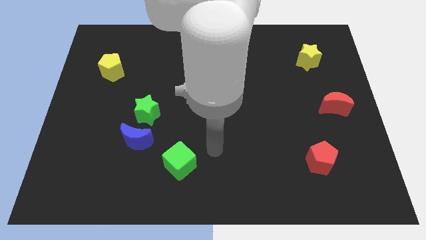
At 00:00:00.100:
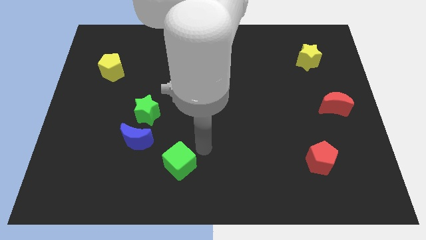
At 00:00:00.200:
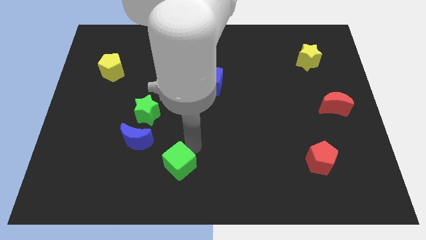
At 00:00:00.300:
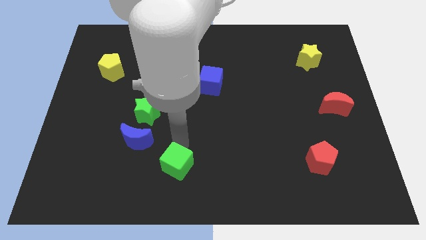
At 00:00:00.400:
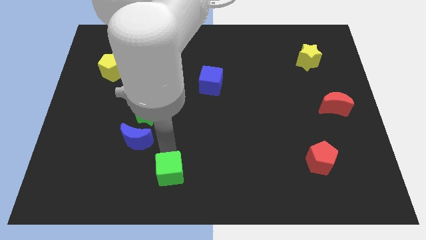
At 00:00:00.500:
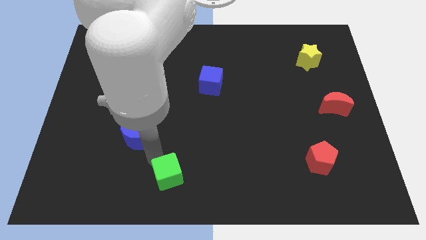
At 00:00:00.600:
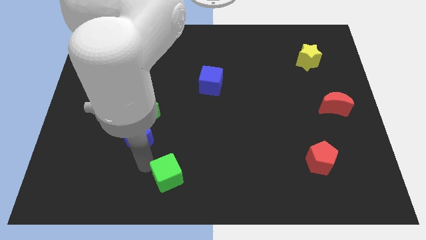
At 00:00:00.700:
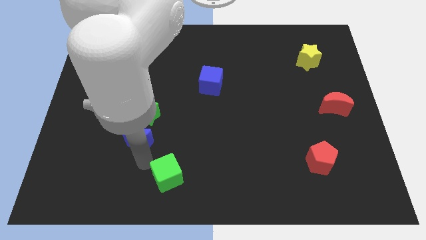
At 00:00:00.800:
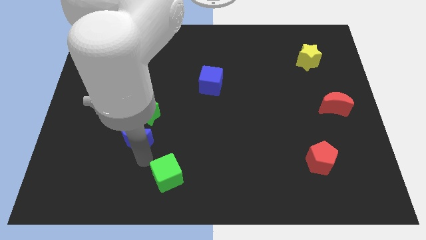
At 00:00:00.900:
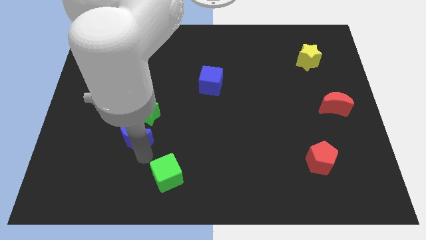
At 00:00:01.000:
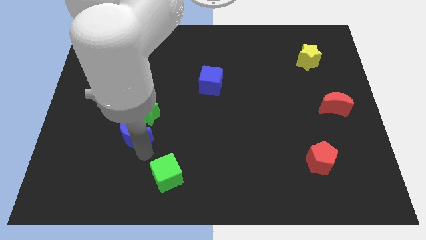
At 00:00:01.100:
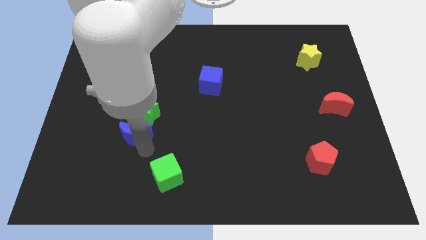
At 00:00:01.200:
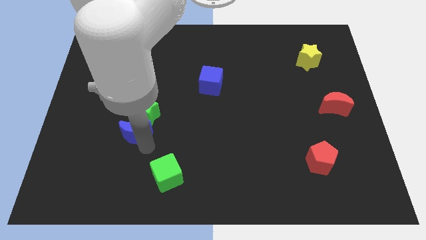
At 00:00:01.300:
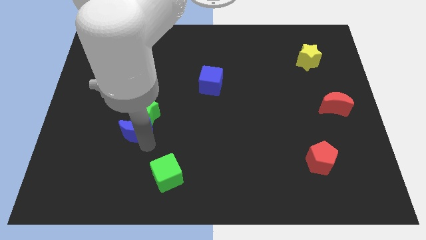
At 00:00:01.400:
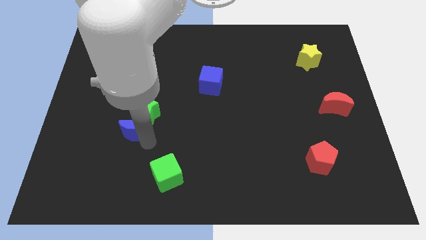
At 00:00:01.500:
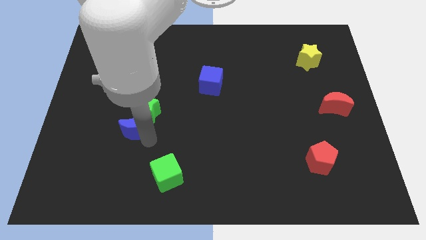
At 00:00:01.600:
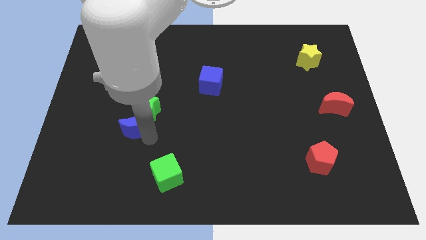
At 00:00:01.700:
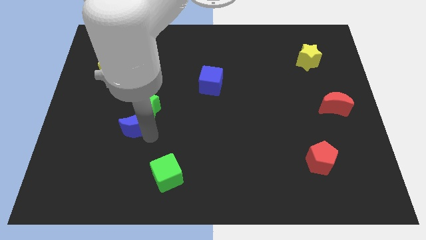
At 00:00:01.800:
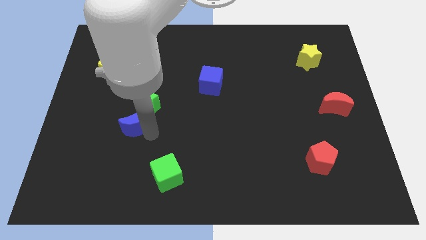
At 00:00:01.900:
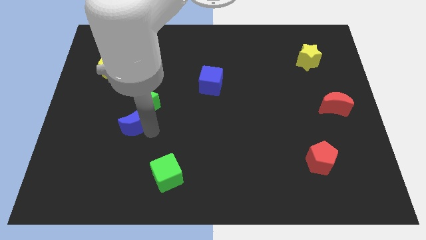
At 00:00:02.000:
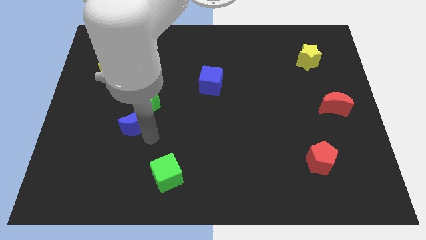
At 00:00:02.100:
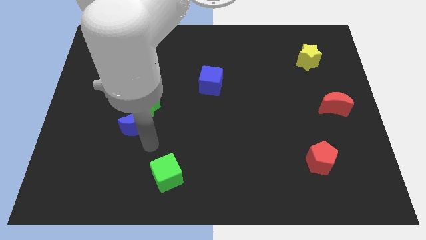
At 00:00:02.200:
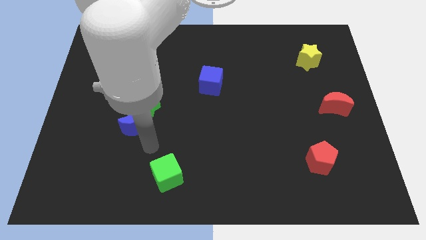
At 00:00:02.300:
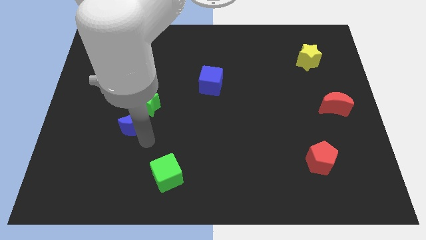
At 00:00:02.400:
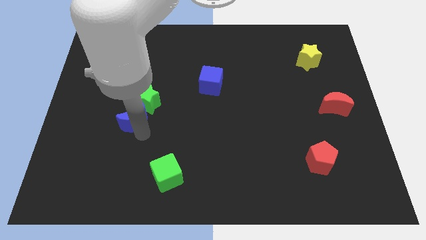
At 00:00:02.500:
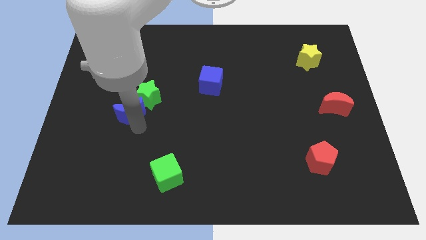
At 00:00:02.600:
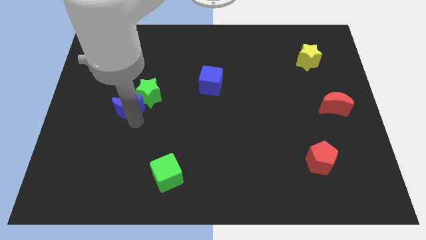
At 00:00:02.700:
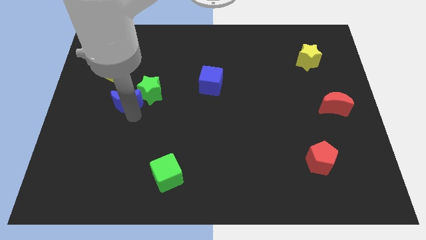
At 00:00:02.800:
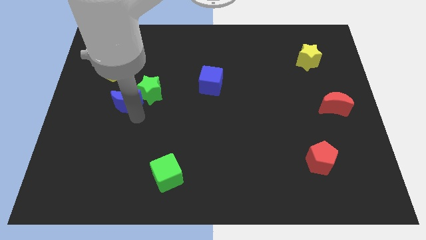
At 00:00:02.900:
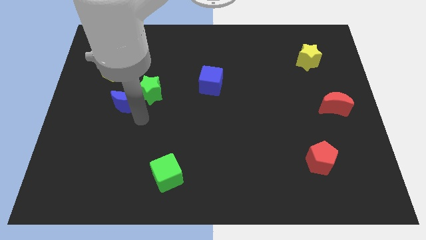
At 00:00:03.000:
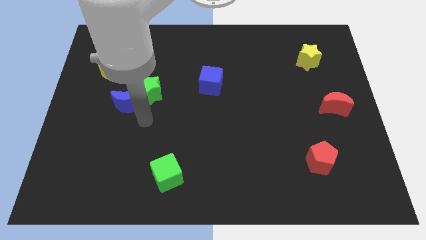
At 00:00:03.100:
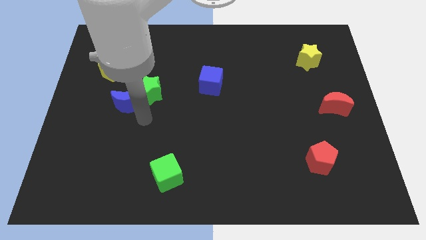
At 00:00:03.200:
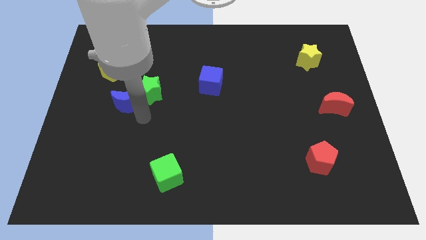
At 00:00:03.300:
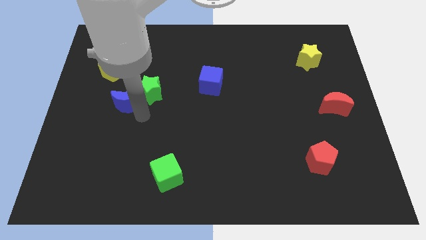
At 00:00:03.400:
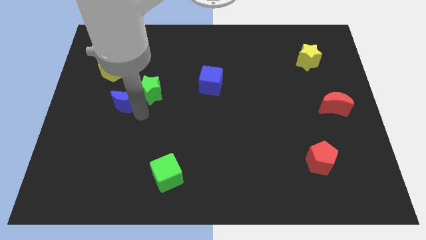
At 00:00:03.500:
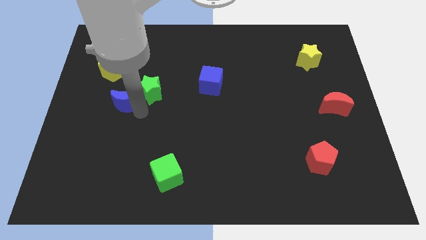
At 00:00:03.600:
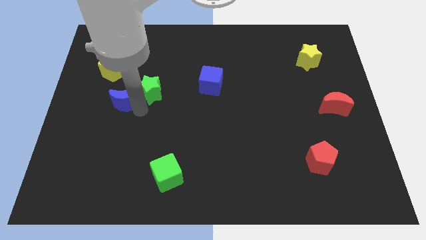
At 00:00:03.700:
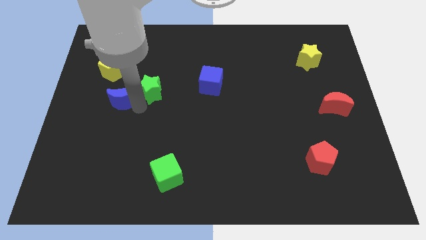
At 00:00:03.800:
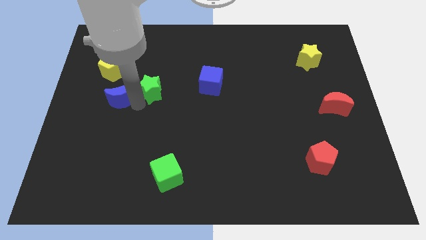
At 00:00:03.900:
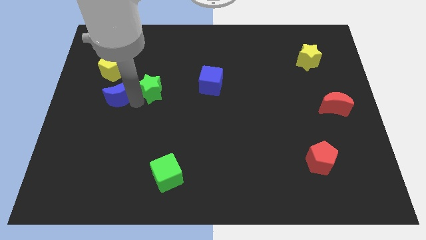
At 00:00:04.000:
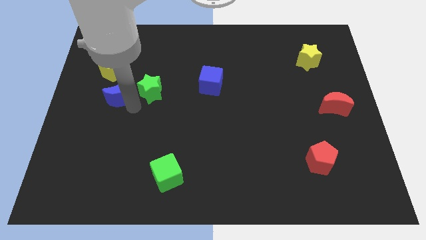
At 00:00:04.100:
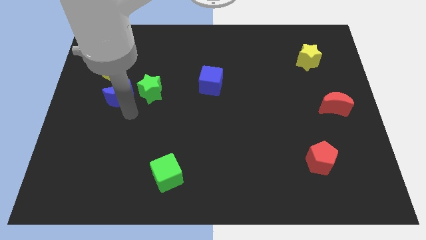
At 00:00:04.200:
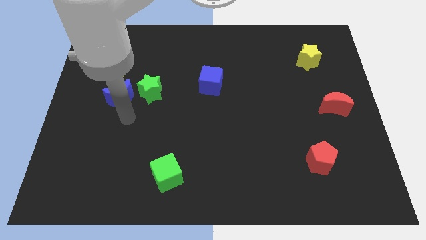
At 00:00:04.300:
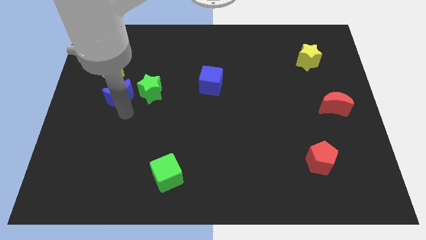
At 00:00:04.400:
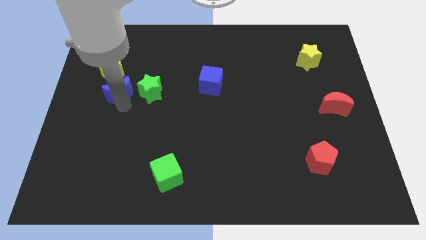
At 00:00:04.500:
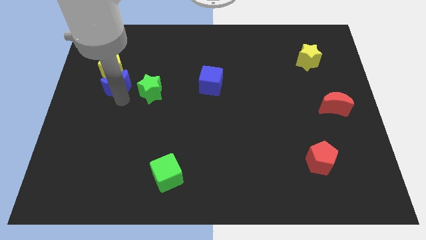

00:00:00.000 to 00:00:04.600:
put the blue moon next to the yellow pentagon

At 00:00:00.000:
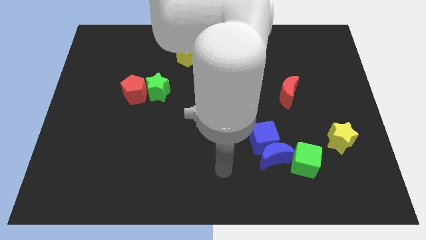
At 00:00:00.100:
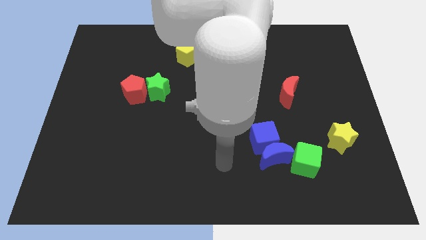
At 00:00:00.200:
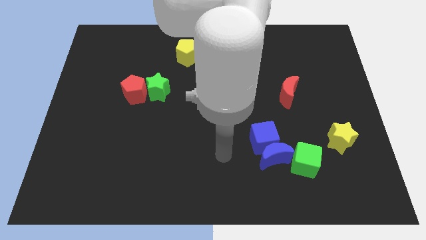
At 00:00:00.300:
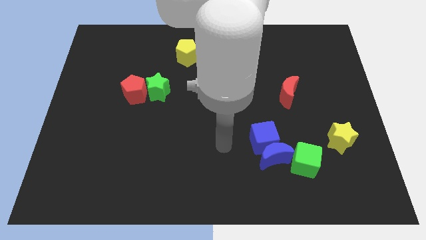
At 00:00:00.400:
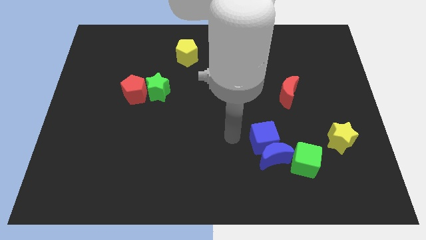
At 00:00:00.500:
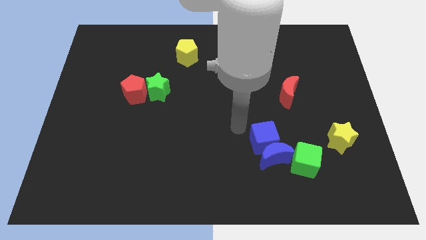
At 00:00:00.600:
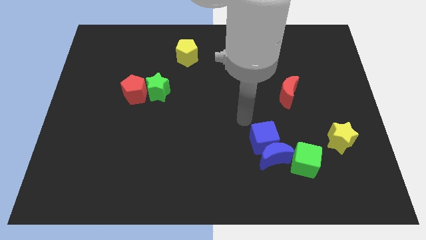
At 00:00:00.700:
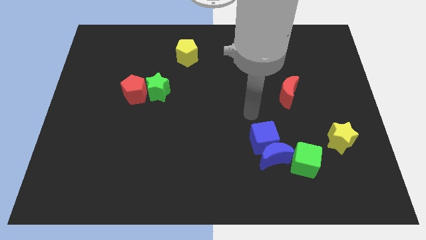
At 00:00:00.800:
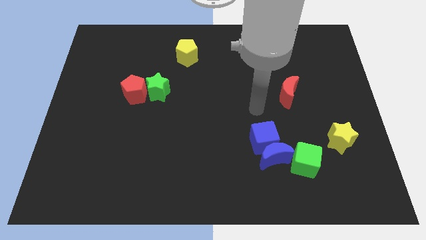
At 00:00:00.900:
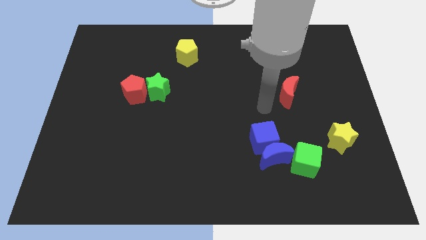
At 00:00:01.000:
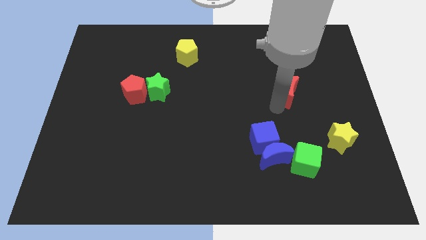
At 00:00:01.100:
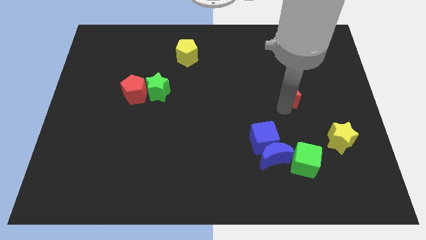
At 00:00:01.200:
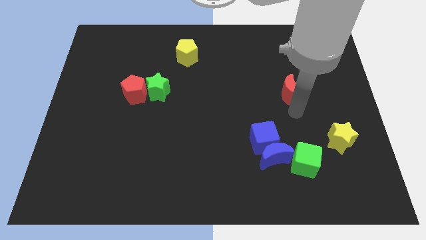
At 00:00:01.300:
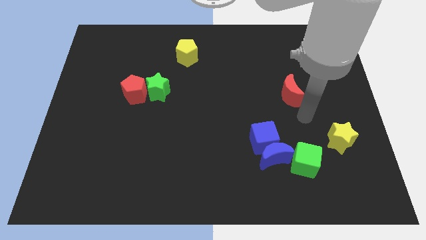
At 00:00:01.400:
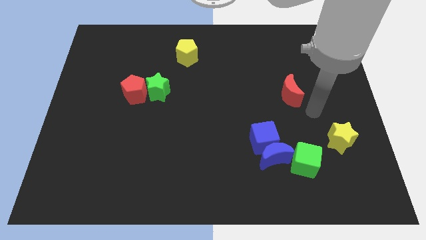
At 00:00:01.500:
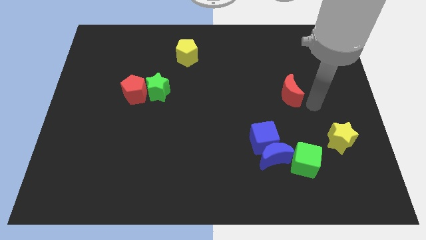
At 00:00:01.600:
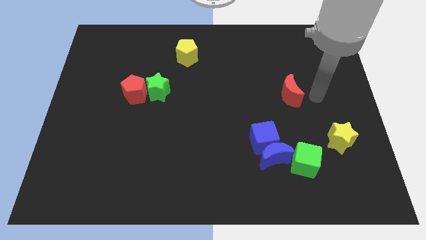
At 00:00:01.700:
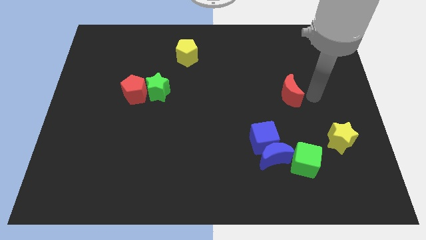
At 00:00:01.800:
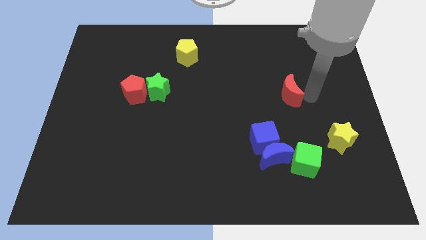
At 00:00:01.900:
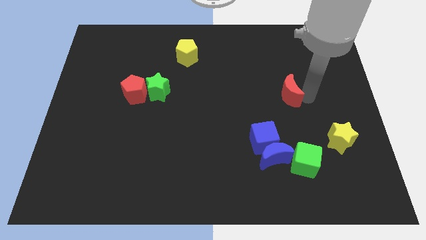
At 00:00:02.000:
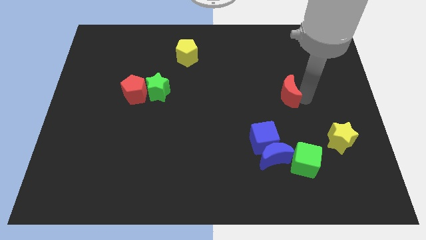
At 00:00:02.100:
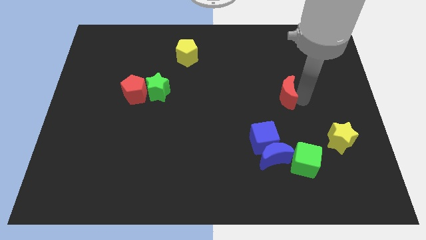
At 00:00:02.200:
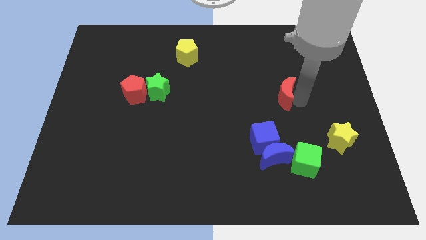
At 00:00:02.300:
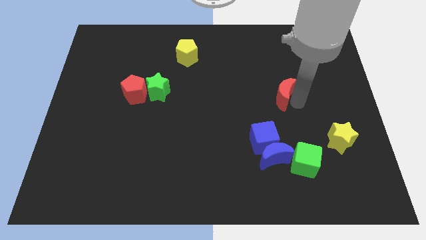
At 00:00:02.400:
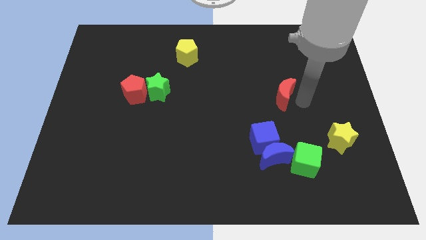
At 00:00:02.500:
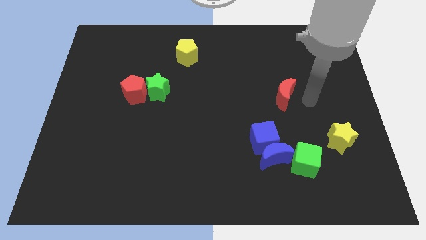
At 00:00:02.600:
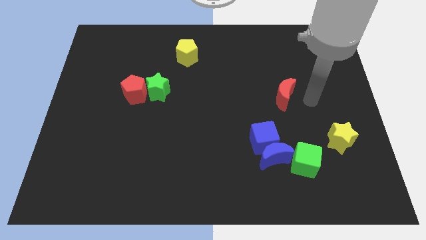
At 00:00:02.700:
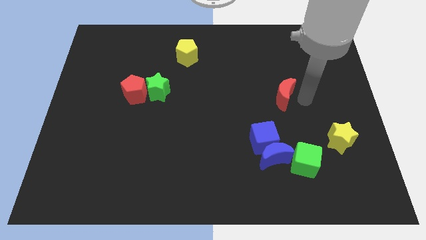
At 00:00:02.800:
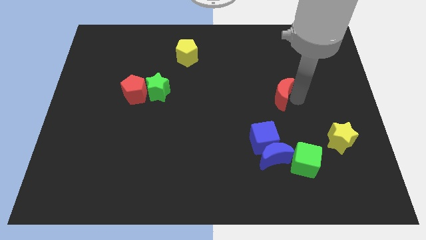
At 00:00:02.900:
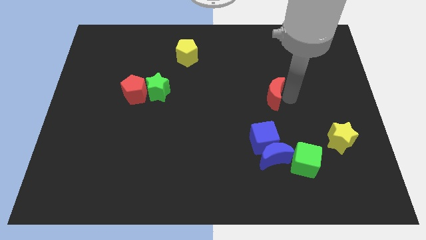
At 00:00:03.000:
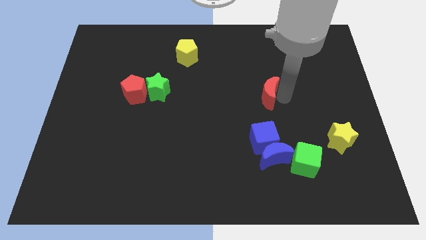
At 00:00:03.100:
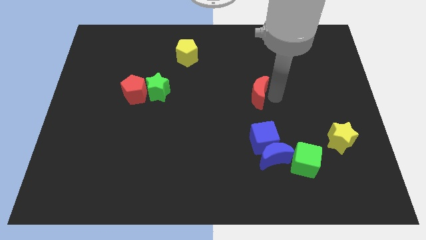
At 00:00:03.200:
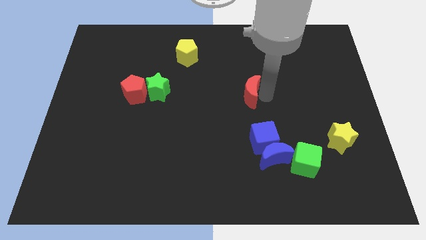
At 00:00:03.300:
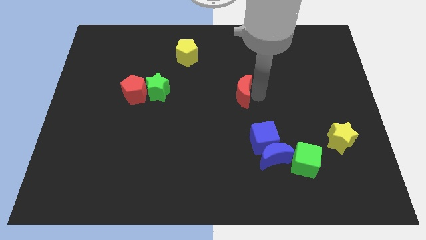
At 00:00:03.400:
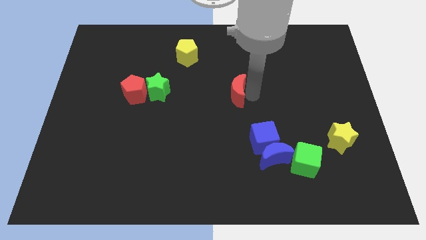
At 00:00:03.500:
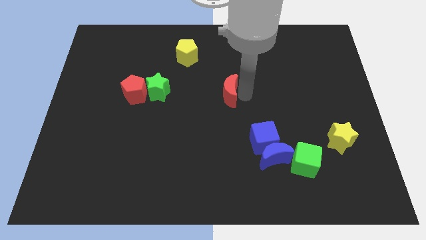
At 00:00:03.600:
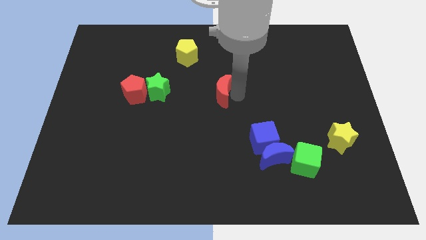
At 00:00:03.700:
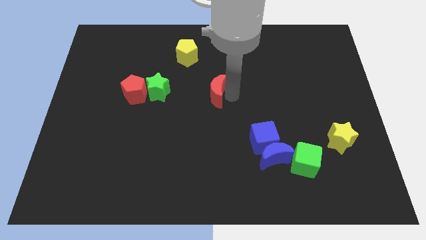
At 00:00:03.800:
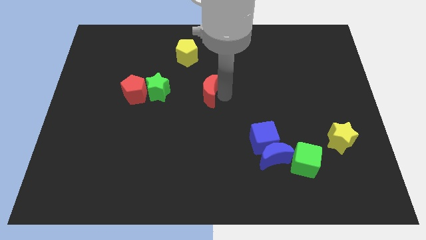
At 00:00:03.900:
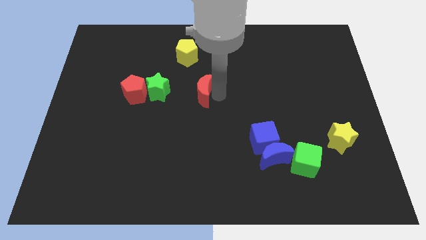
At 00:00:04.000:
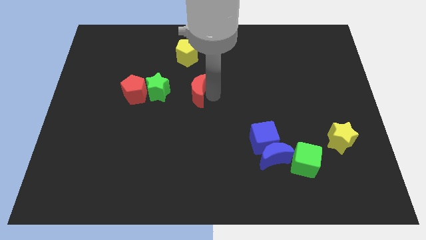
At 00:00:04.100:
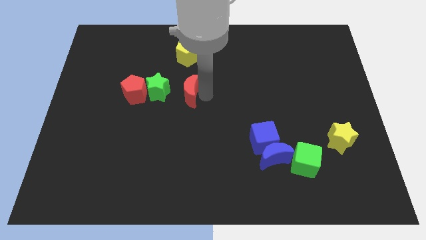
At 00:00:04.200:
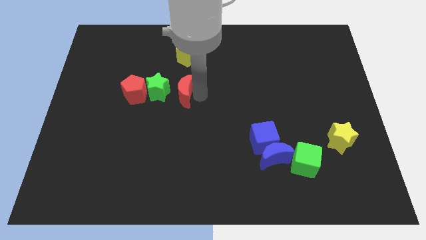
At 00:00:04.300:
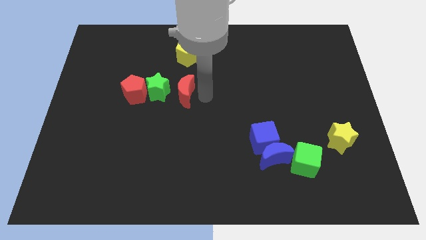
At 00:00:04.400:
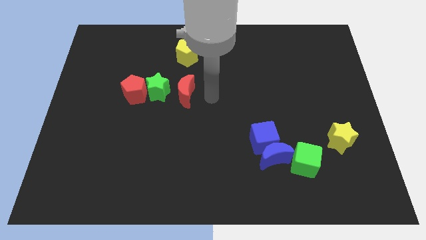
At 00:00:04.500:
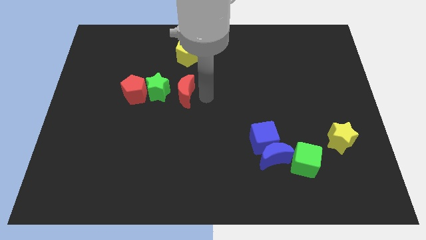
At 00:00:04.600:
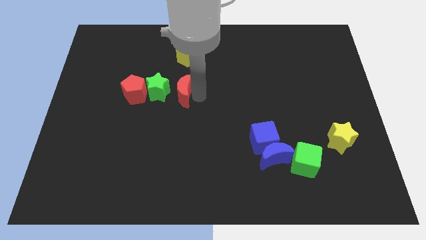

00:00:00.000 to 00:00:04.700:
slide the red moon close to the green star
